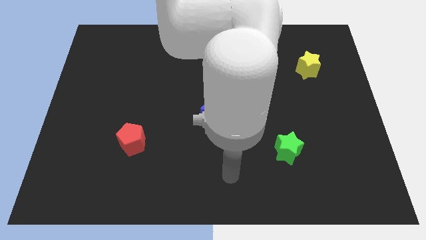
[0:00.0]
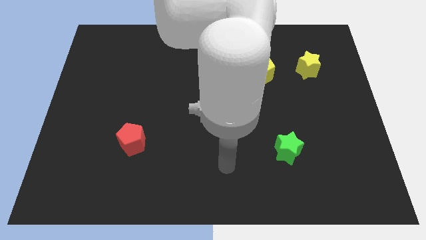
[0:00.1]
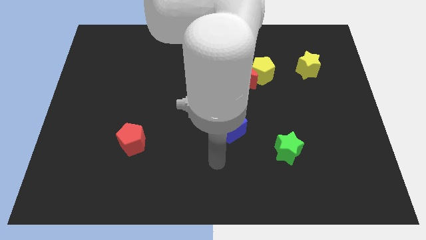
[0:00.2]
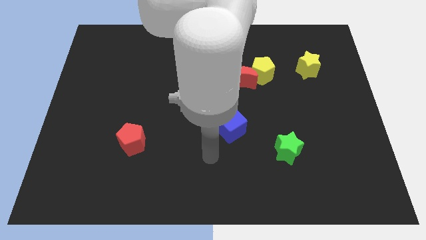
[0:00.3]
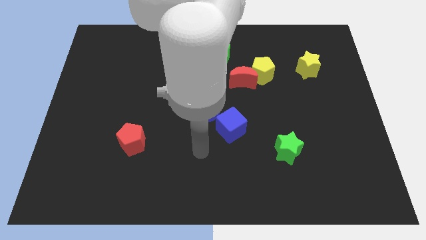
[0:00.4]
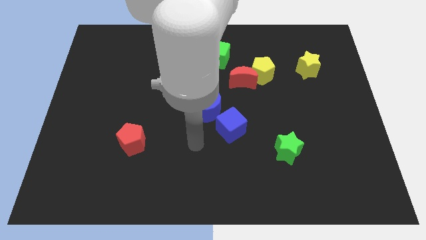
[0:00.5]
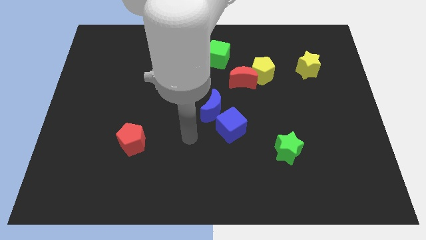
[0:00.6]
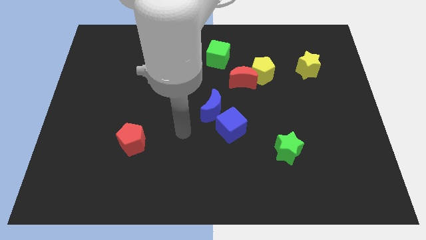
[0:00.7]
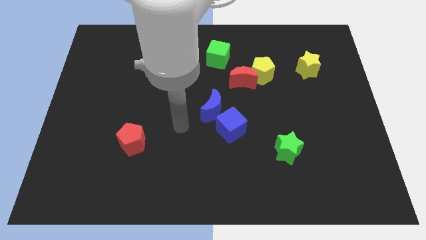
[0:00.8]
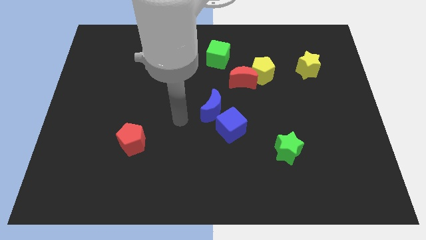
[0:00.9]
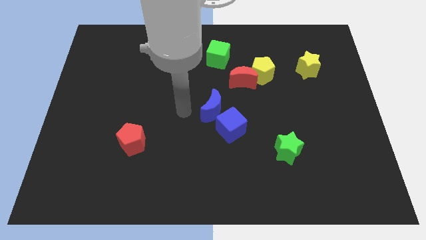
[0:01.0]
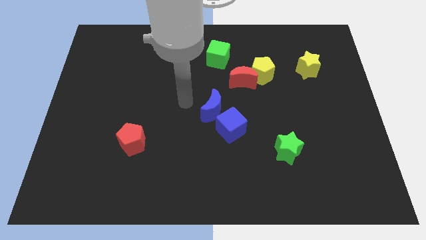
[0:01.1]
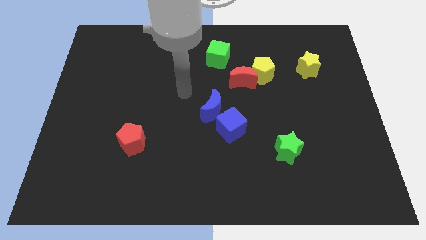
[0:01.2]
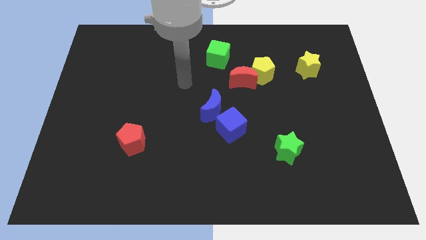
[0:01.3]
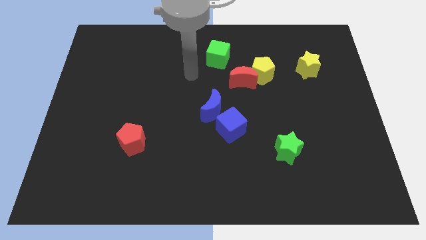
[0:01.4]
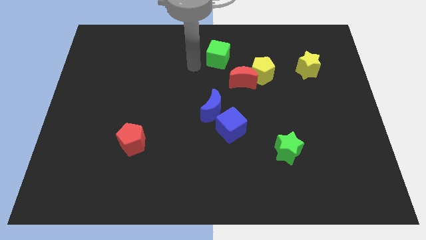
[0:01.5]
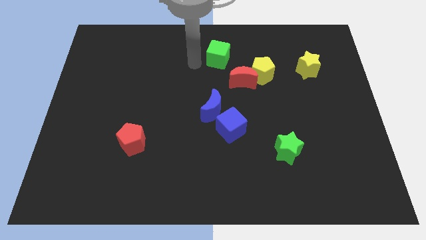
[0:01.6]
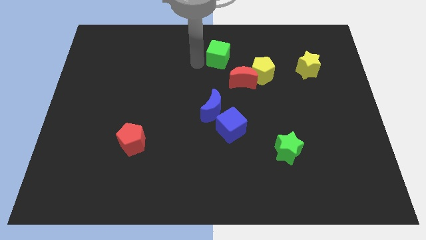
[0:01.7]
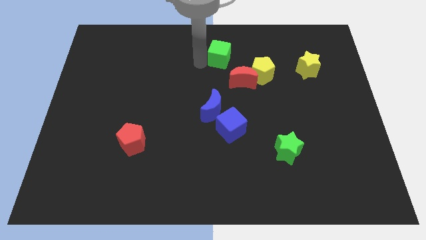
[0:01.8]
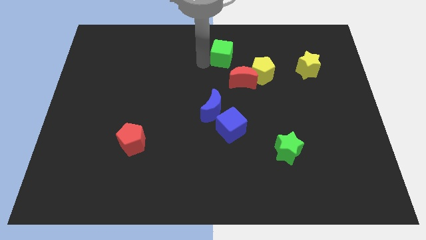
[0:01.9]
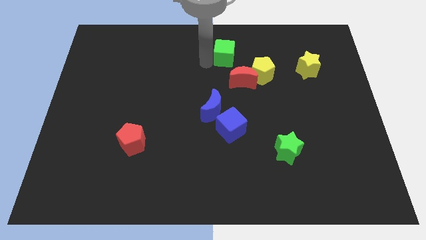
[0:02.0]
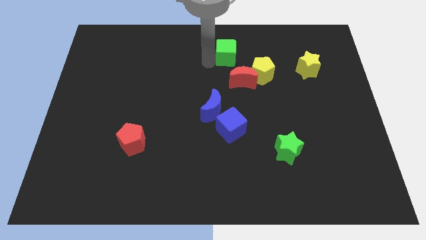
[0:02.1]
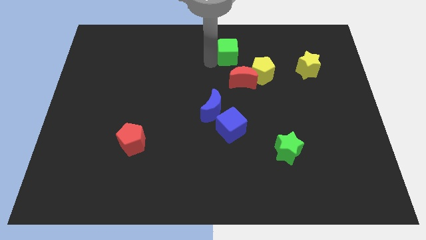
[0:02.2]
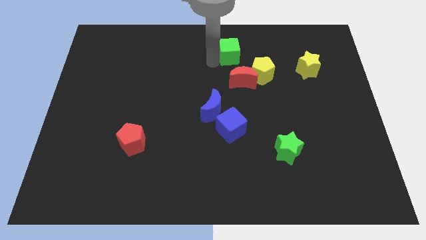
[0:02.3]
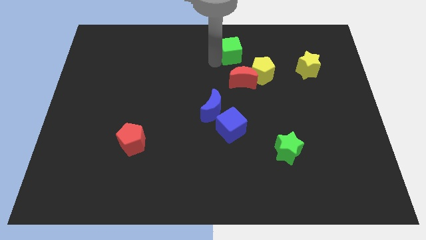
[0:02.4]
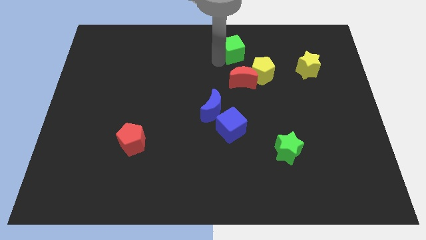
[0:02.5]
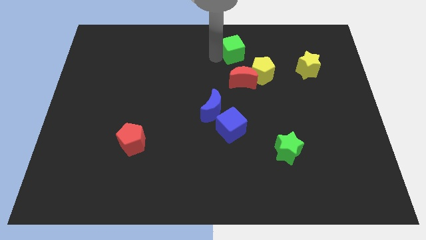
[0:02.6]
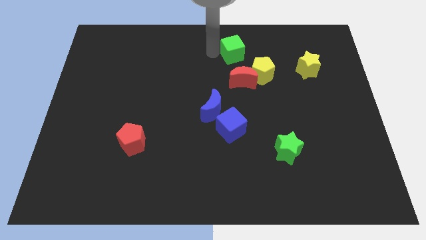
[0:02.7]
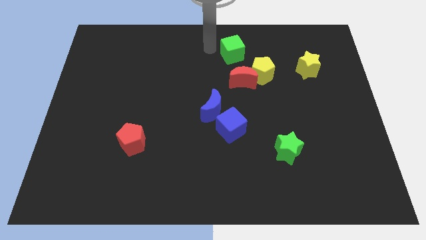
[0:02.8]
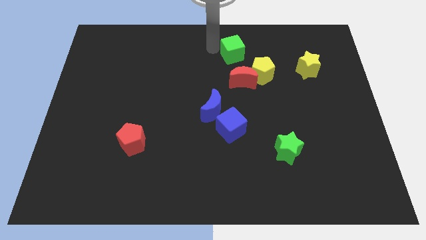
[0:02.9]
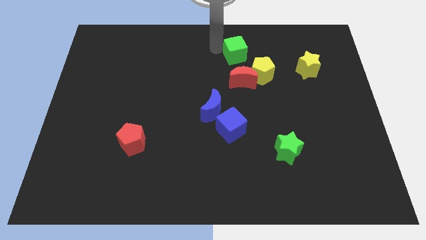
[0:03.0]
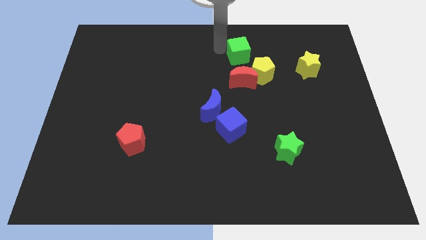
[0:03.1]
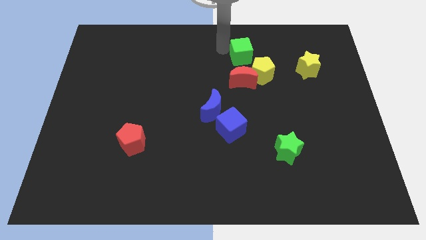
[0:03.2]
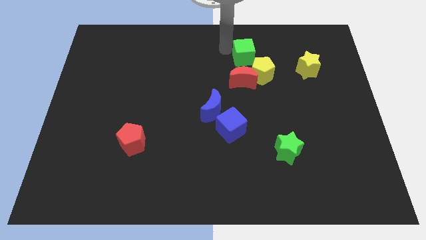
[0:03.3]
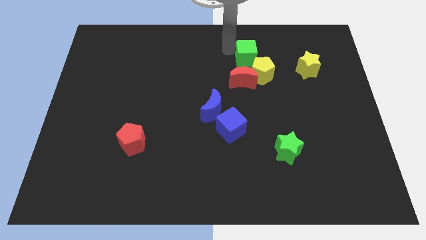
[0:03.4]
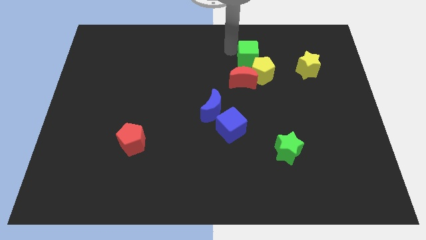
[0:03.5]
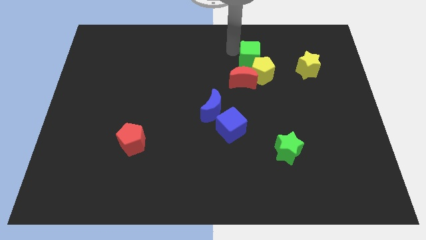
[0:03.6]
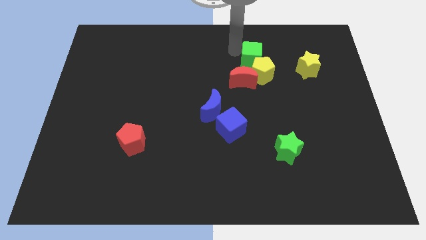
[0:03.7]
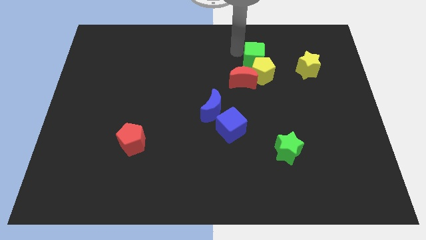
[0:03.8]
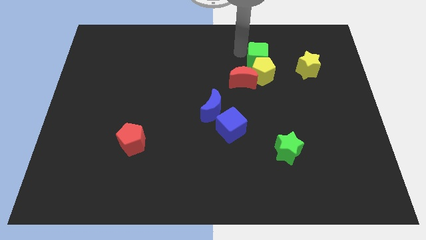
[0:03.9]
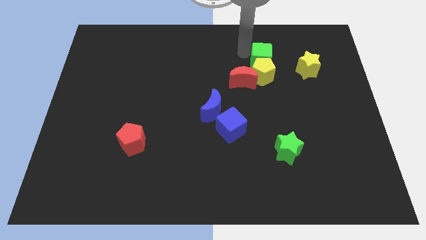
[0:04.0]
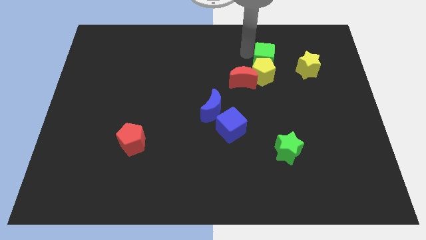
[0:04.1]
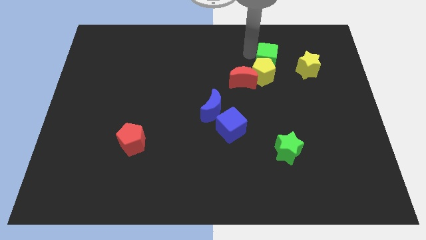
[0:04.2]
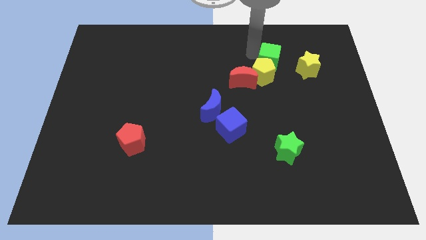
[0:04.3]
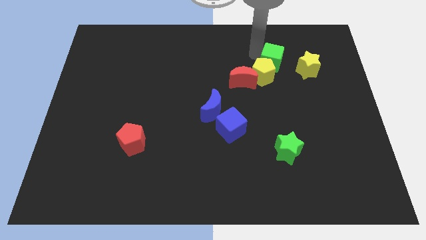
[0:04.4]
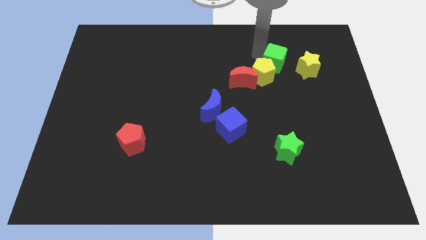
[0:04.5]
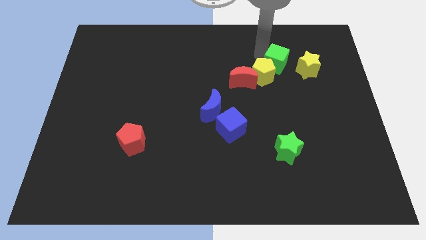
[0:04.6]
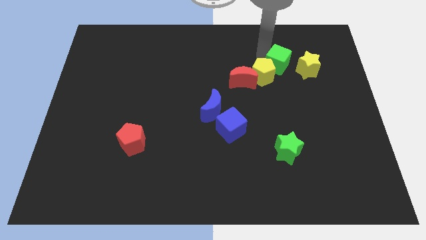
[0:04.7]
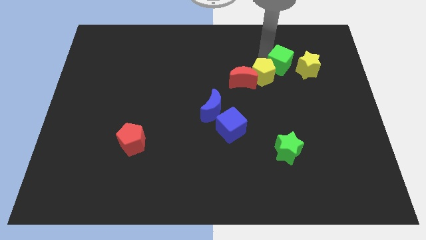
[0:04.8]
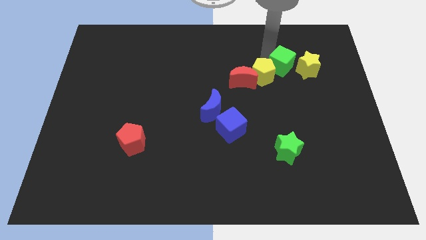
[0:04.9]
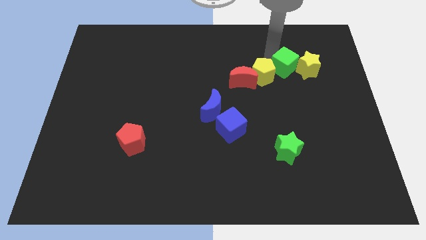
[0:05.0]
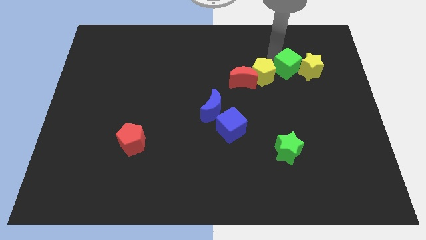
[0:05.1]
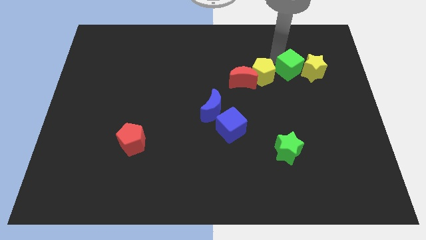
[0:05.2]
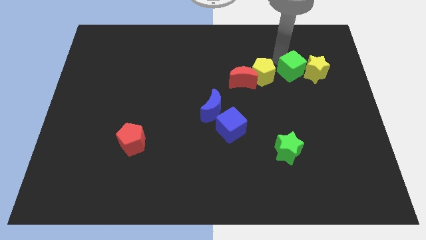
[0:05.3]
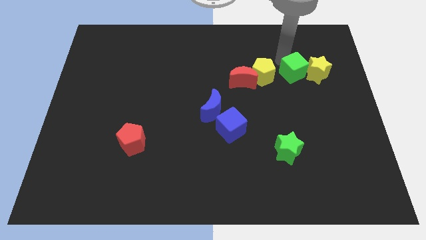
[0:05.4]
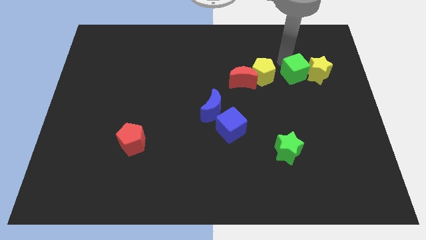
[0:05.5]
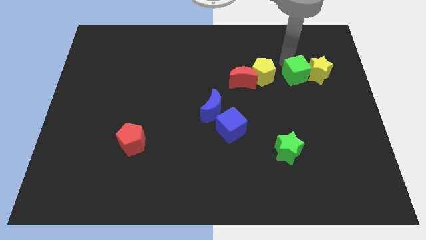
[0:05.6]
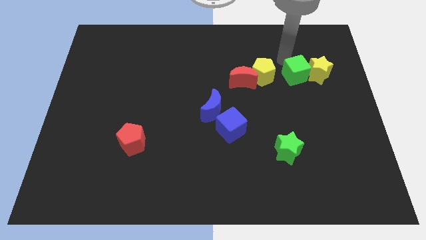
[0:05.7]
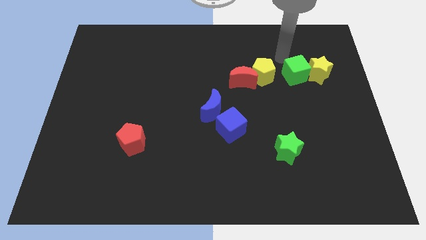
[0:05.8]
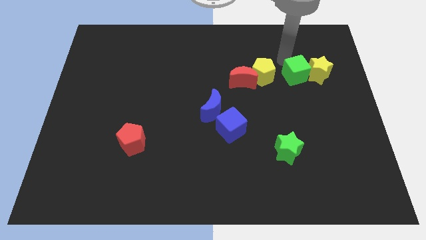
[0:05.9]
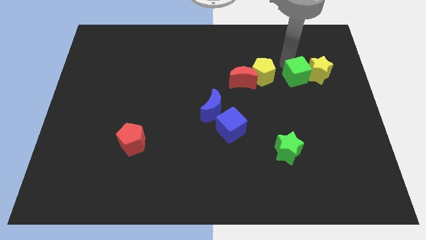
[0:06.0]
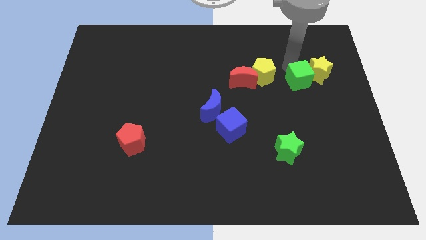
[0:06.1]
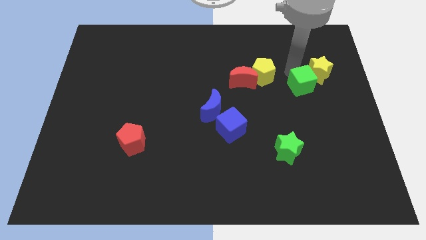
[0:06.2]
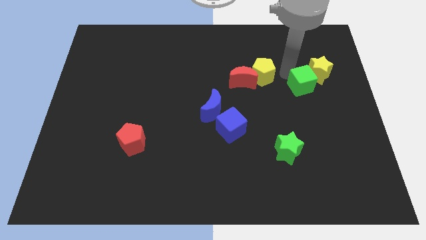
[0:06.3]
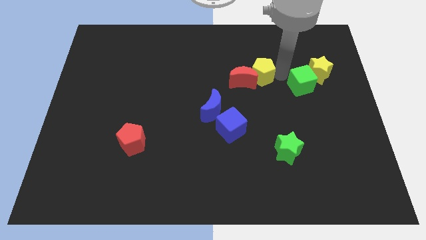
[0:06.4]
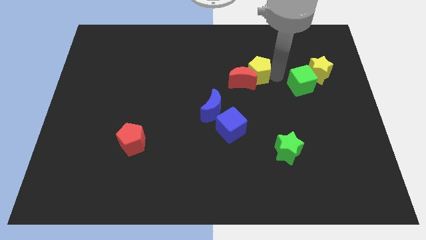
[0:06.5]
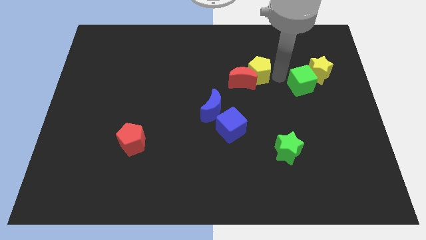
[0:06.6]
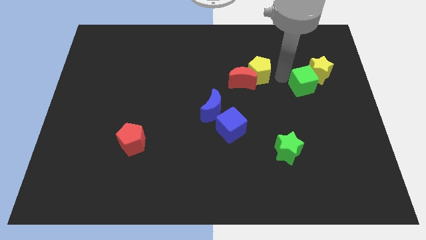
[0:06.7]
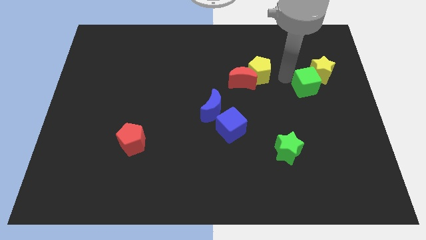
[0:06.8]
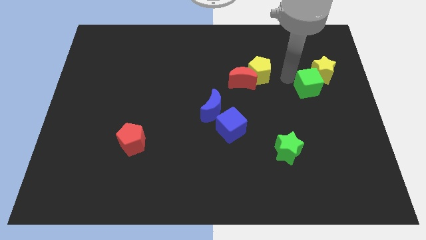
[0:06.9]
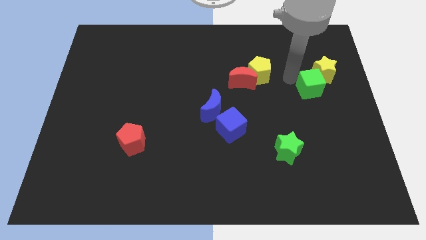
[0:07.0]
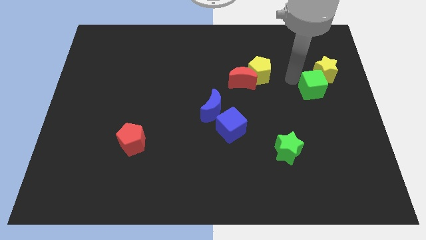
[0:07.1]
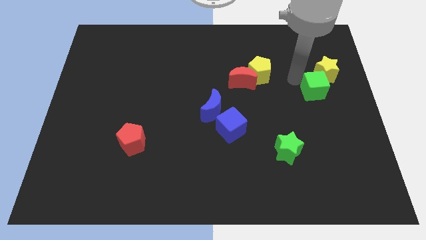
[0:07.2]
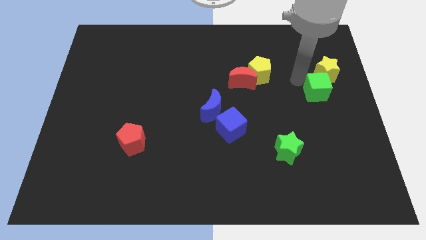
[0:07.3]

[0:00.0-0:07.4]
move the green cube to the center right
